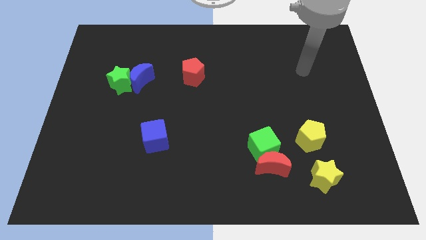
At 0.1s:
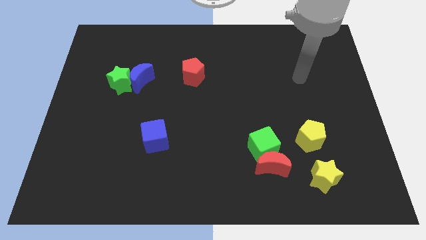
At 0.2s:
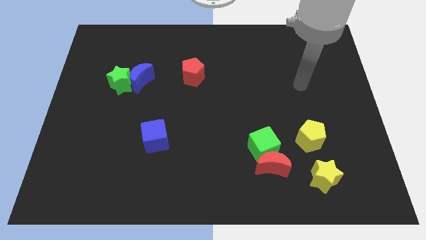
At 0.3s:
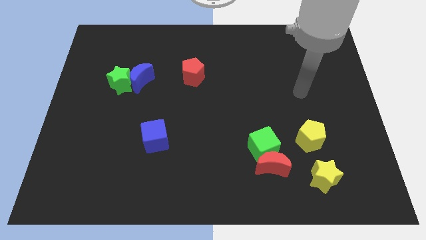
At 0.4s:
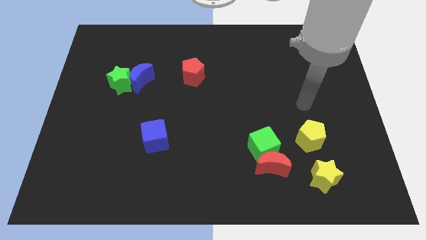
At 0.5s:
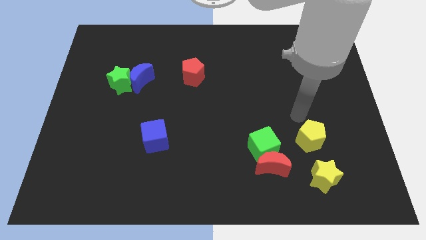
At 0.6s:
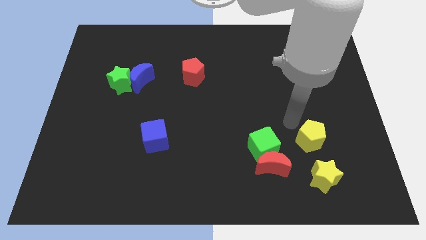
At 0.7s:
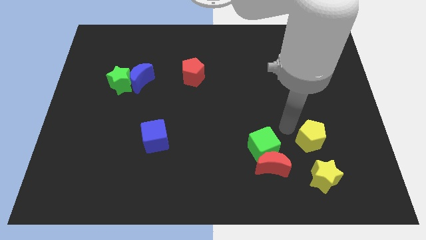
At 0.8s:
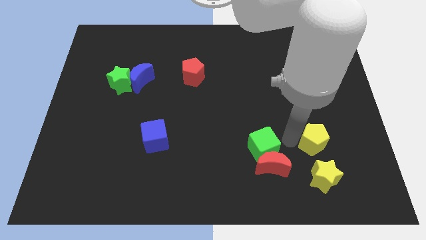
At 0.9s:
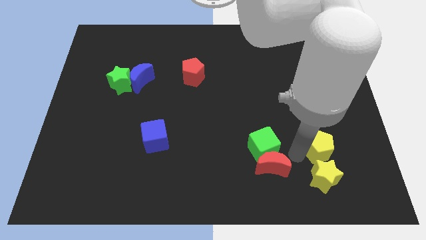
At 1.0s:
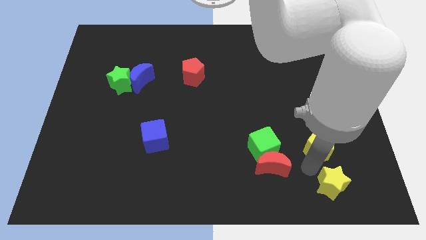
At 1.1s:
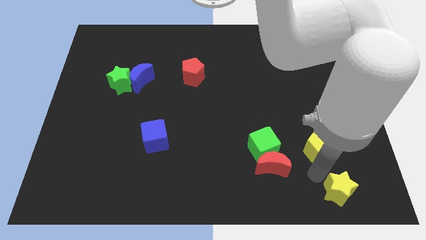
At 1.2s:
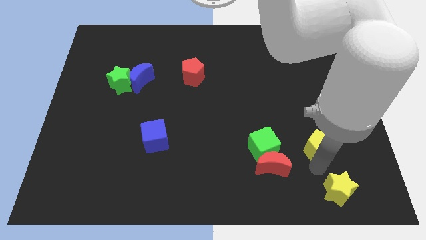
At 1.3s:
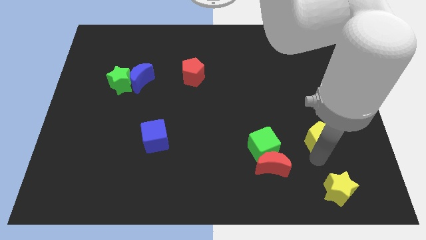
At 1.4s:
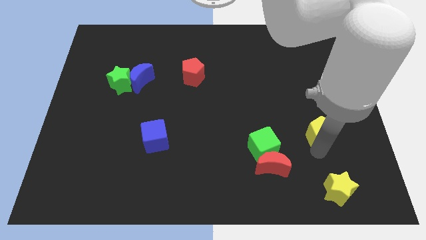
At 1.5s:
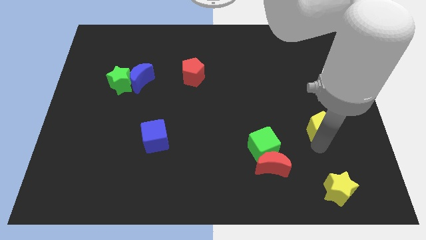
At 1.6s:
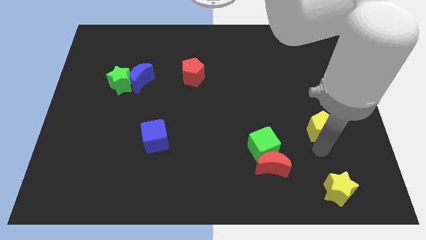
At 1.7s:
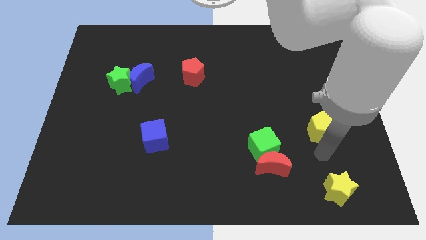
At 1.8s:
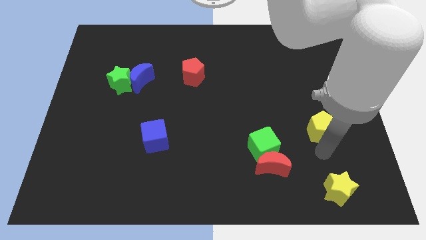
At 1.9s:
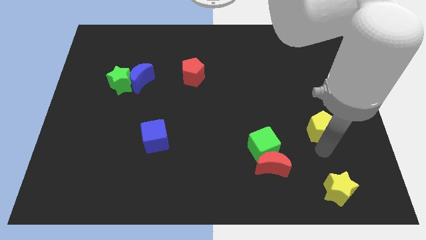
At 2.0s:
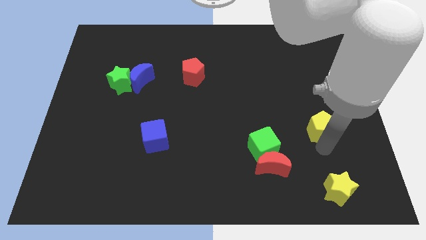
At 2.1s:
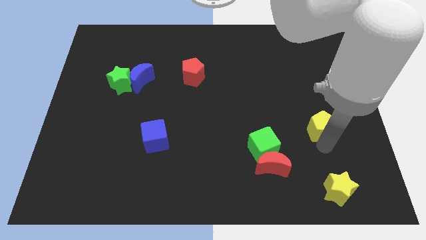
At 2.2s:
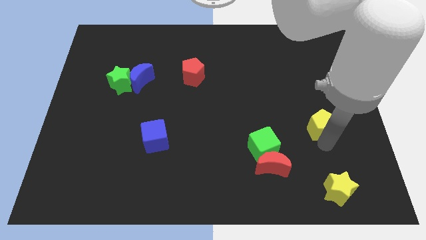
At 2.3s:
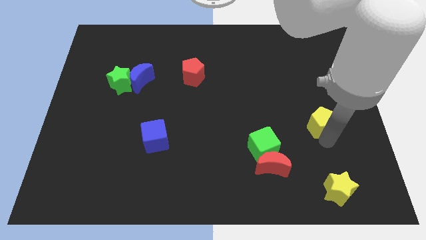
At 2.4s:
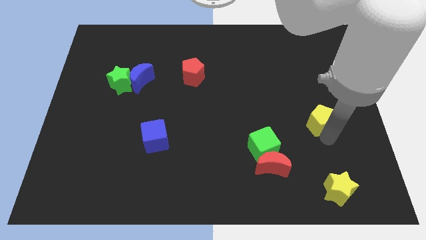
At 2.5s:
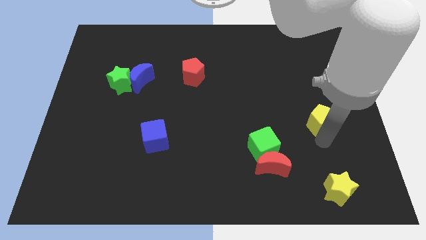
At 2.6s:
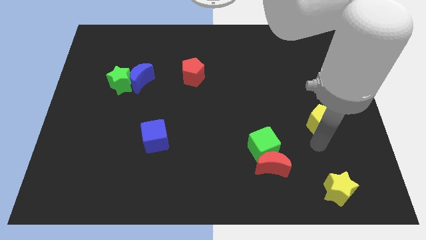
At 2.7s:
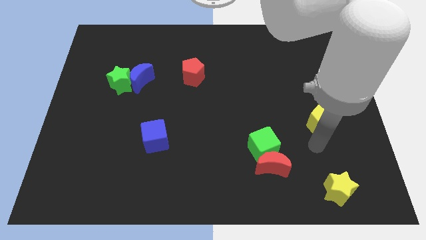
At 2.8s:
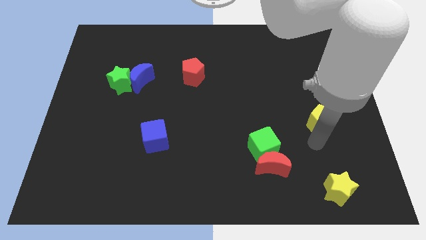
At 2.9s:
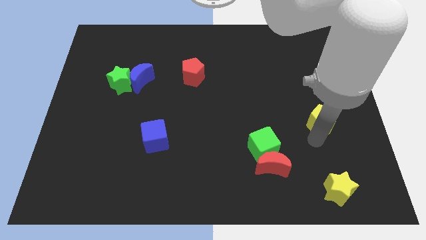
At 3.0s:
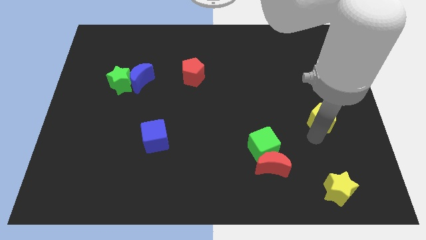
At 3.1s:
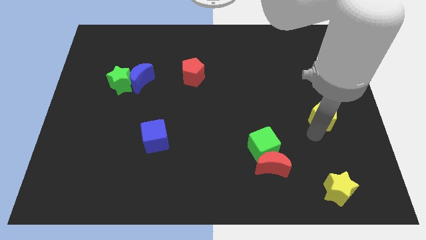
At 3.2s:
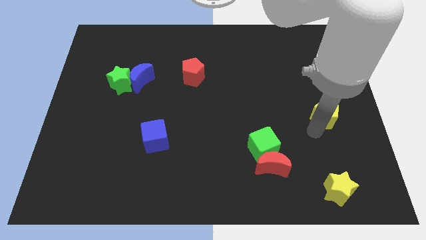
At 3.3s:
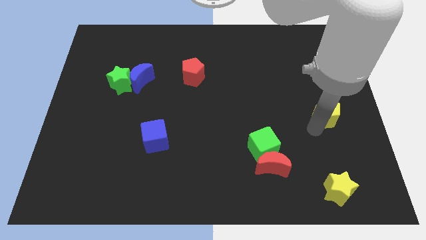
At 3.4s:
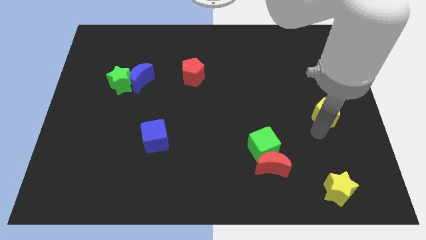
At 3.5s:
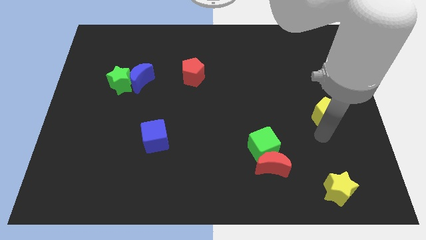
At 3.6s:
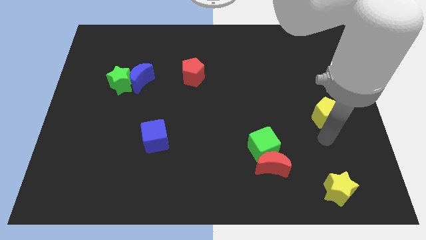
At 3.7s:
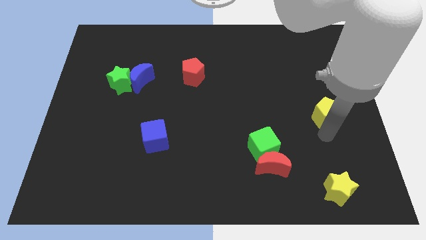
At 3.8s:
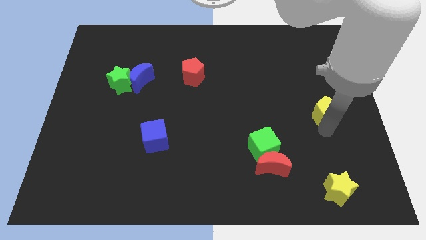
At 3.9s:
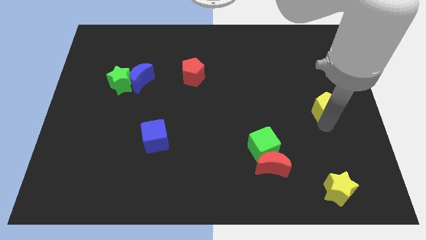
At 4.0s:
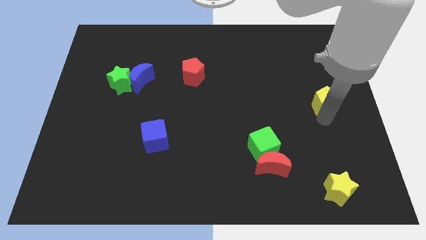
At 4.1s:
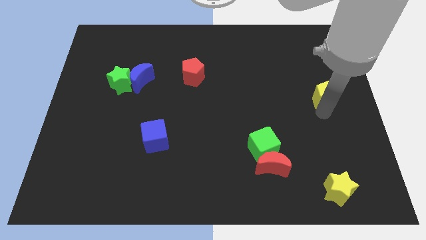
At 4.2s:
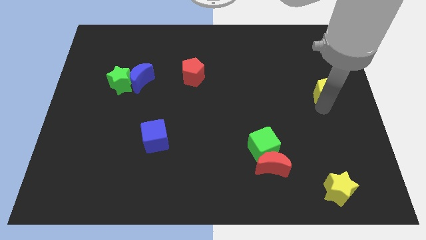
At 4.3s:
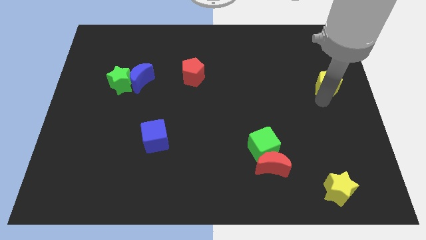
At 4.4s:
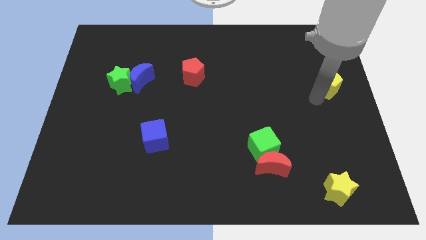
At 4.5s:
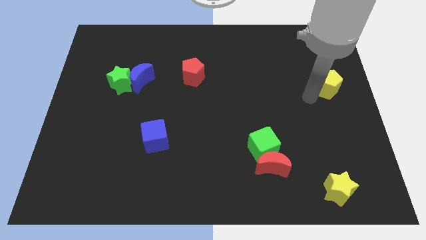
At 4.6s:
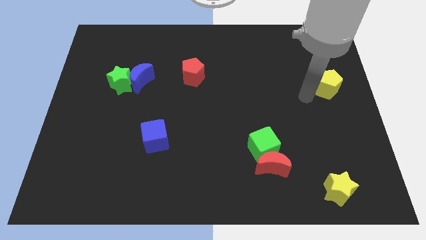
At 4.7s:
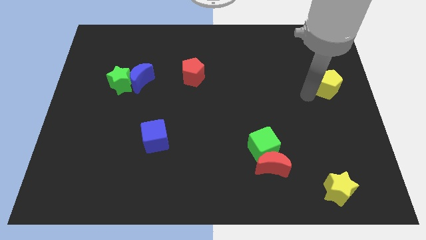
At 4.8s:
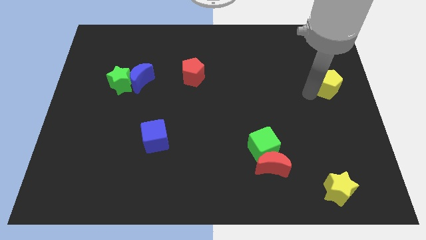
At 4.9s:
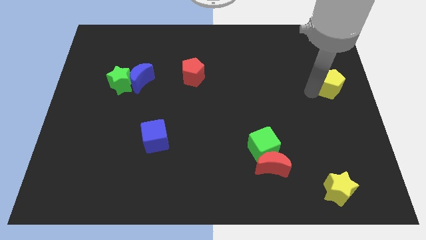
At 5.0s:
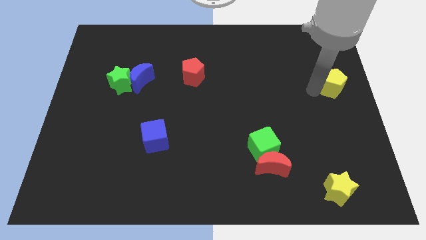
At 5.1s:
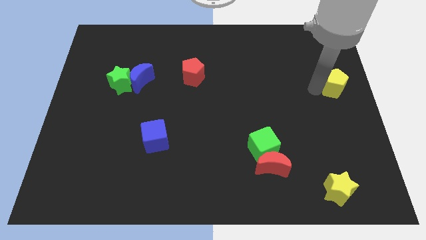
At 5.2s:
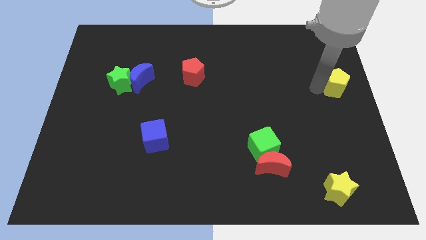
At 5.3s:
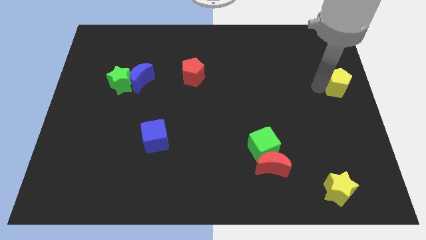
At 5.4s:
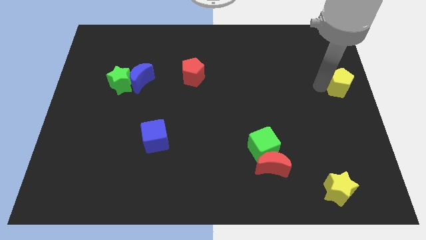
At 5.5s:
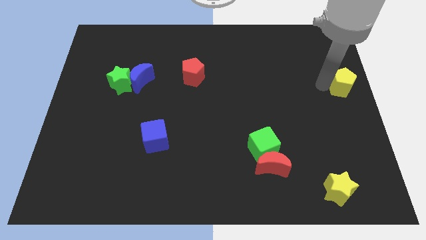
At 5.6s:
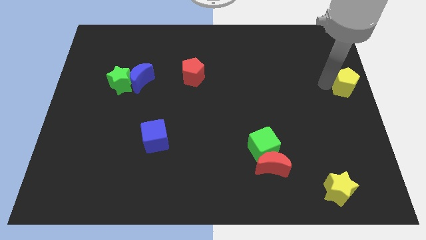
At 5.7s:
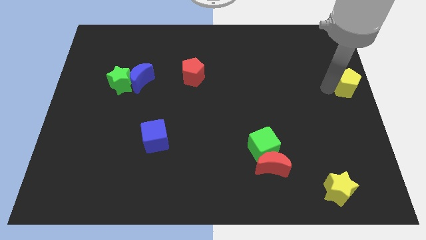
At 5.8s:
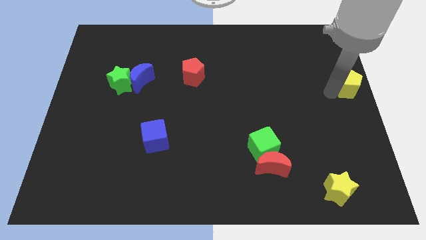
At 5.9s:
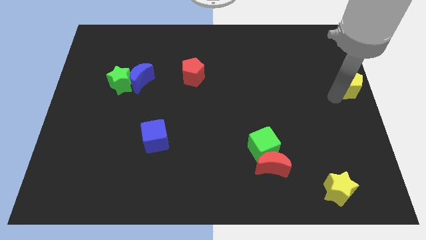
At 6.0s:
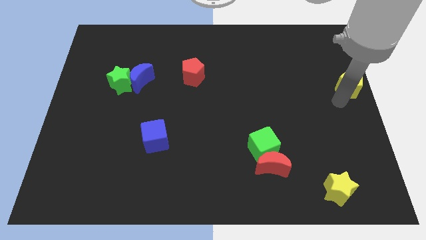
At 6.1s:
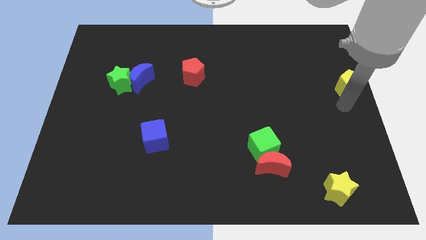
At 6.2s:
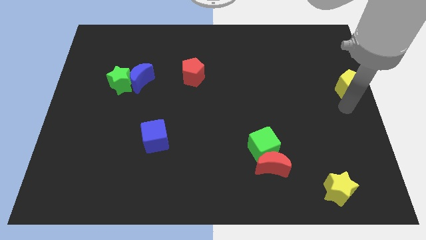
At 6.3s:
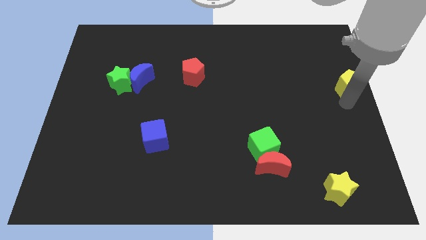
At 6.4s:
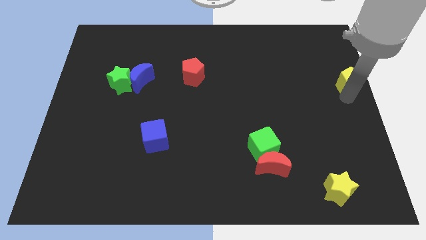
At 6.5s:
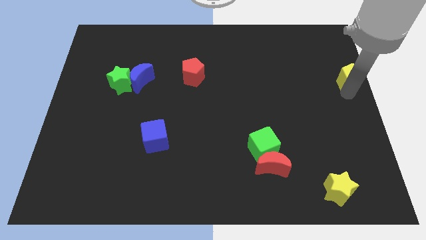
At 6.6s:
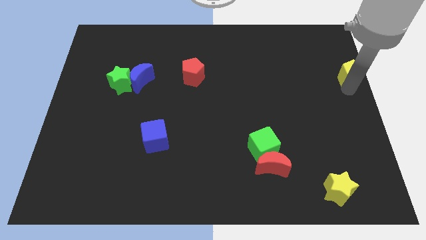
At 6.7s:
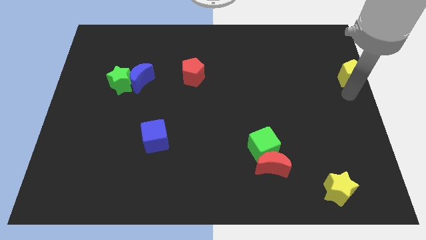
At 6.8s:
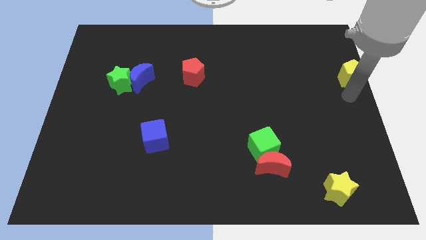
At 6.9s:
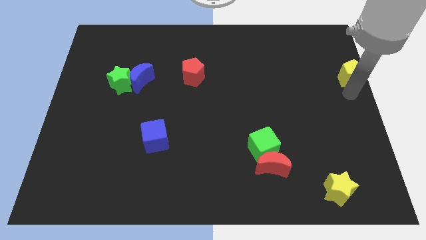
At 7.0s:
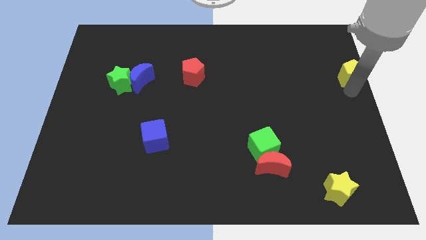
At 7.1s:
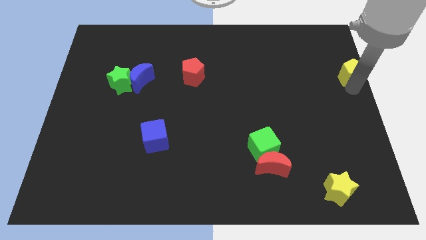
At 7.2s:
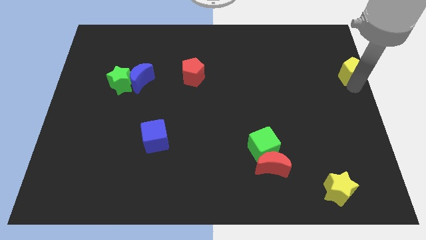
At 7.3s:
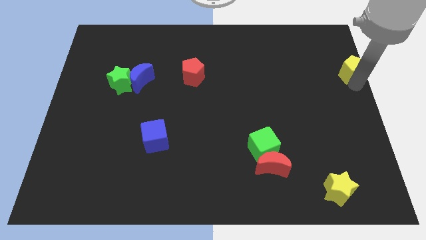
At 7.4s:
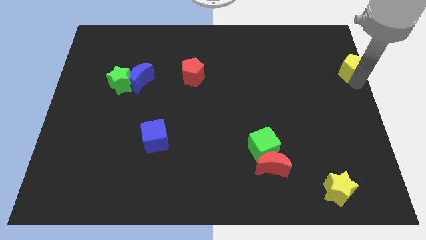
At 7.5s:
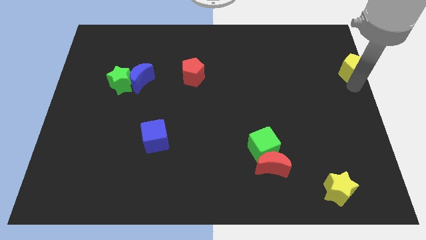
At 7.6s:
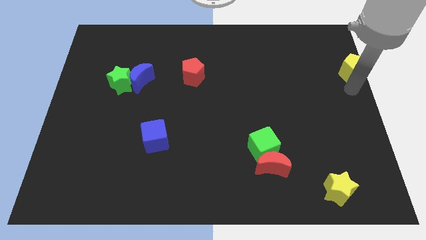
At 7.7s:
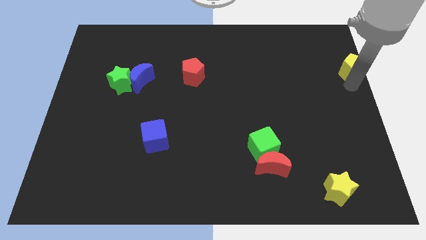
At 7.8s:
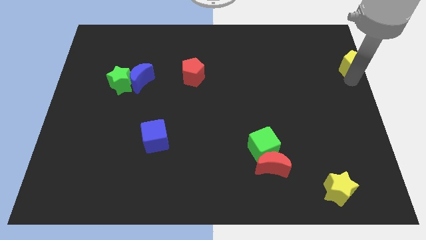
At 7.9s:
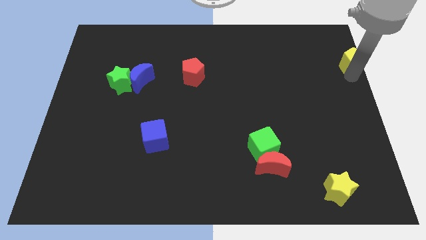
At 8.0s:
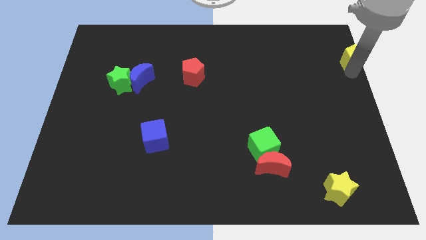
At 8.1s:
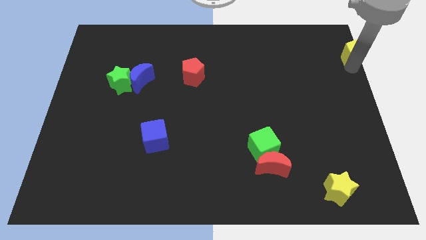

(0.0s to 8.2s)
move the yellow pentagon to the top right
